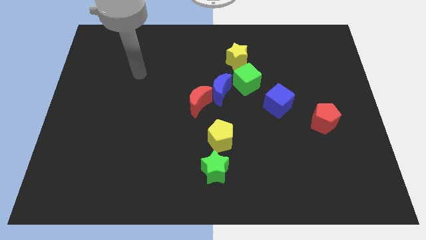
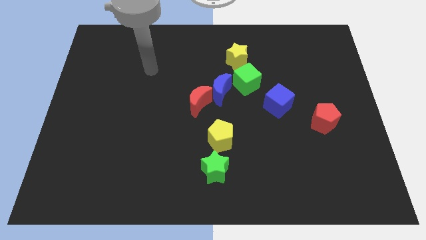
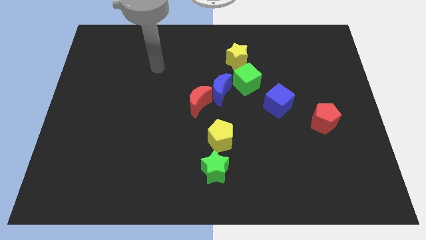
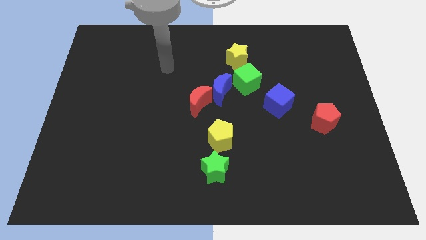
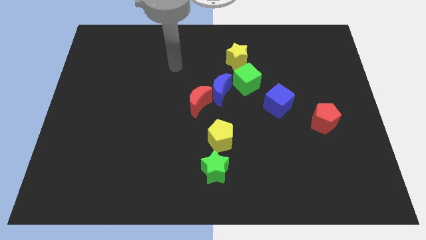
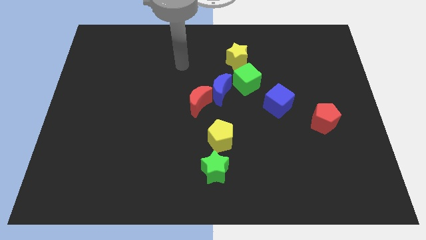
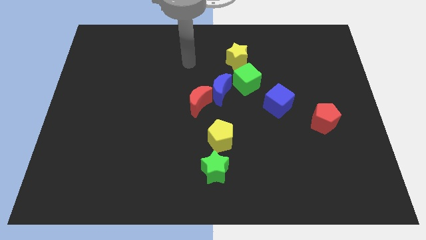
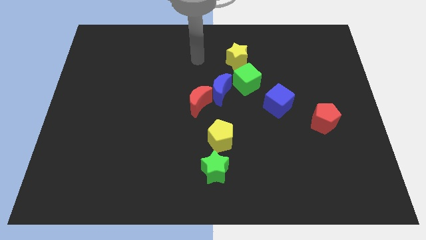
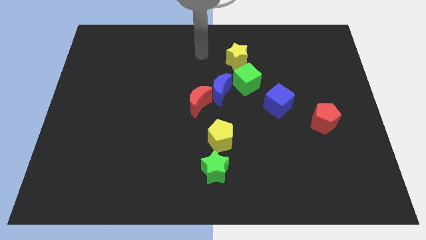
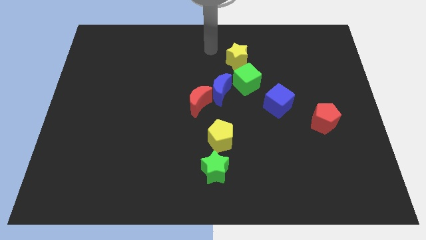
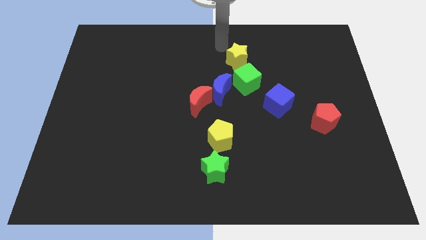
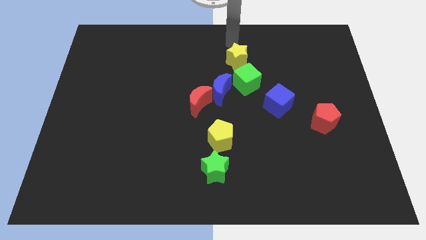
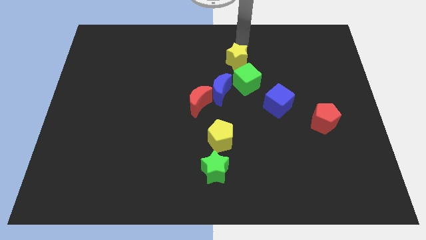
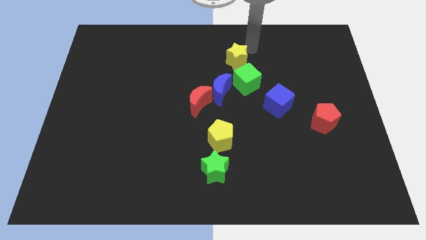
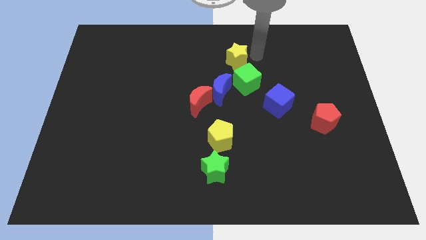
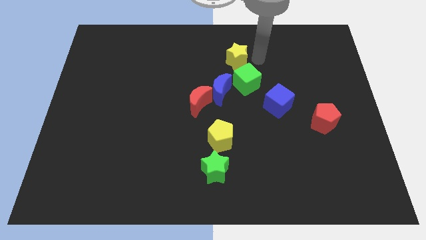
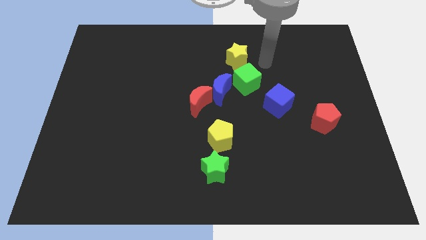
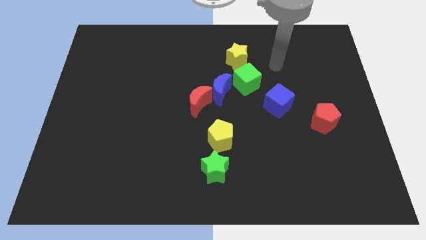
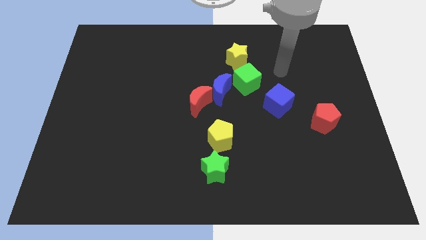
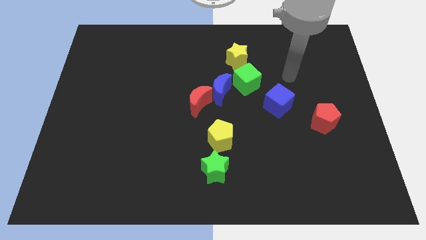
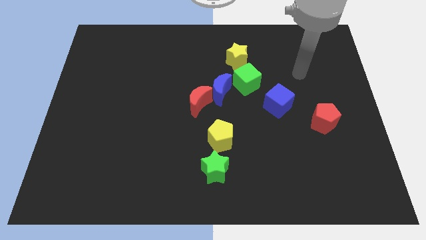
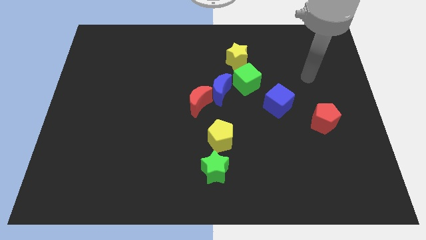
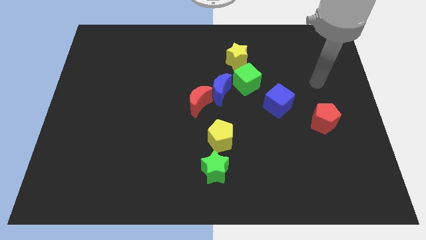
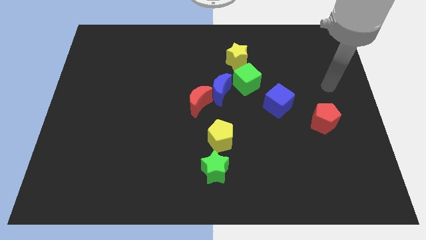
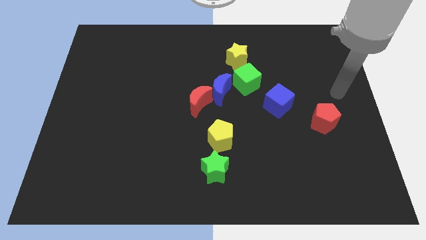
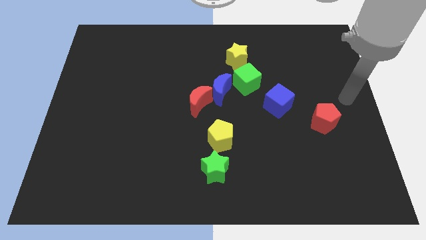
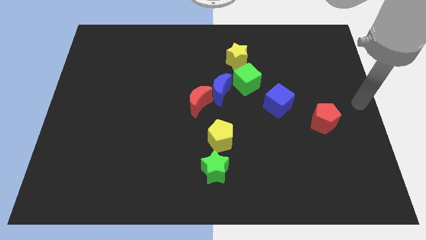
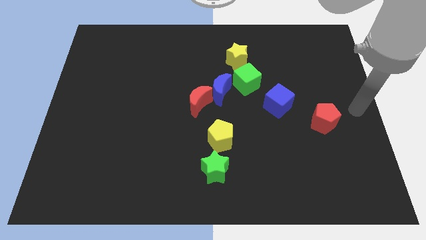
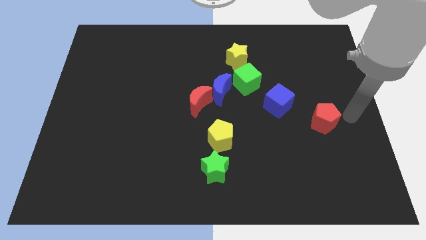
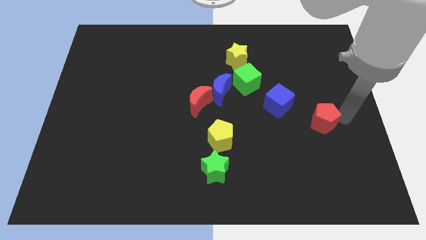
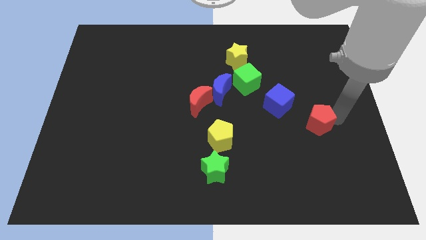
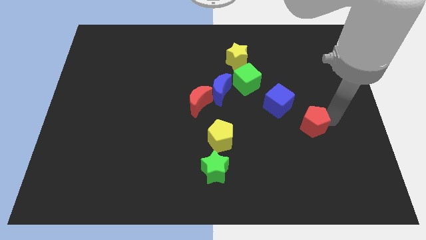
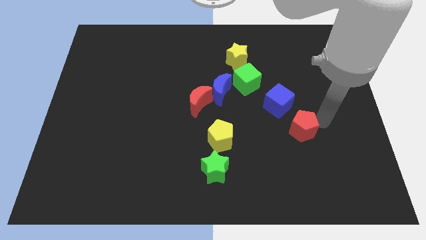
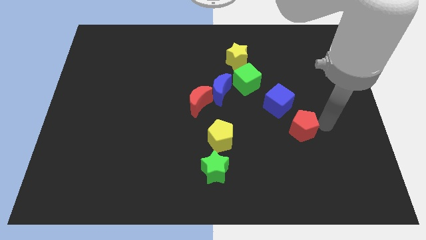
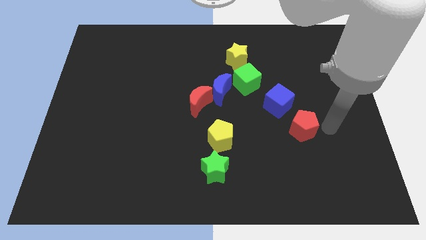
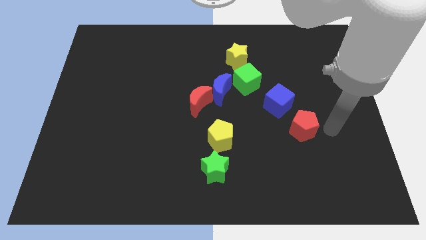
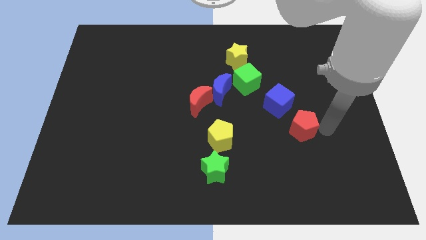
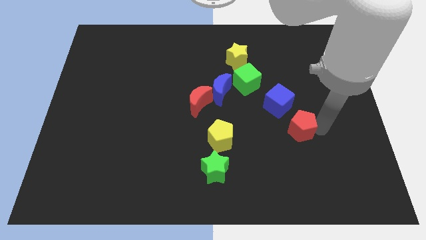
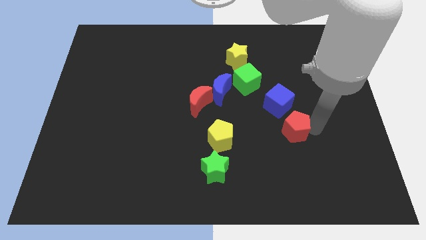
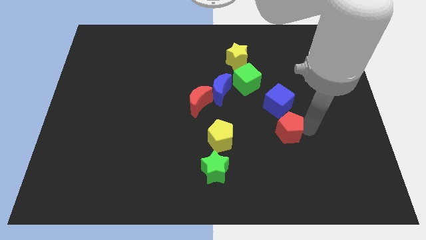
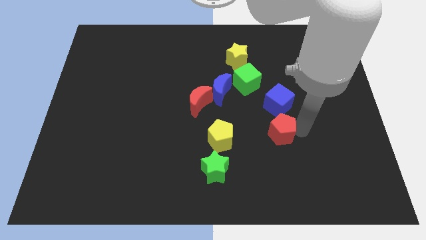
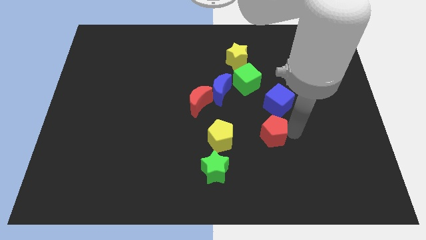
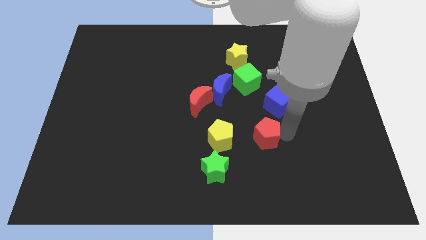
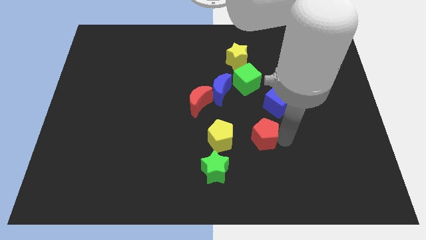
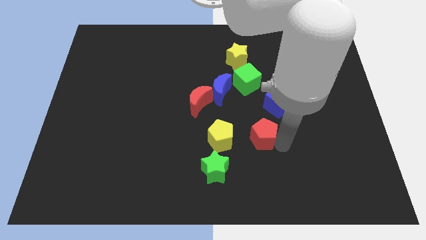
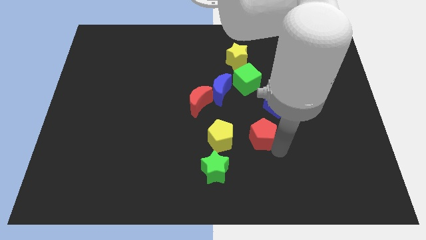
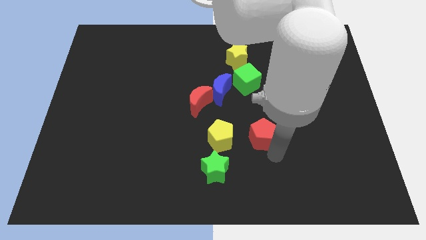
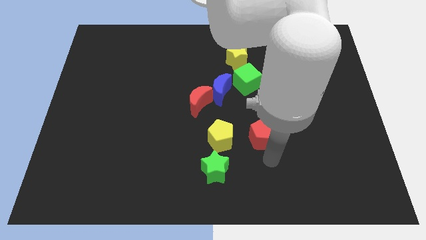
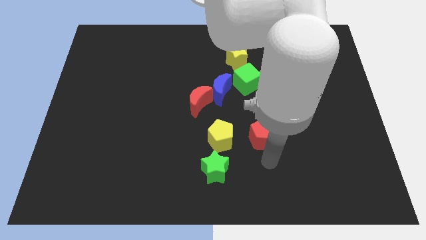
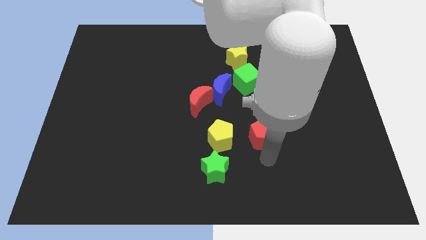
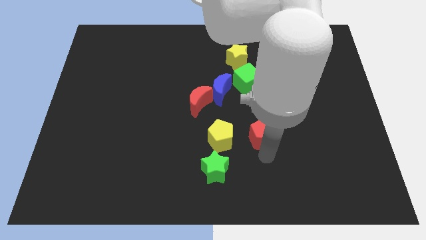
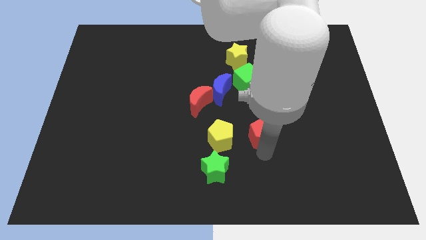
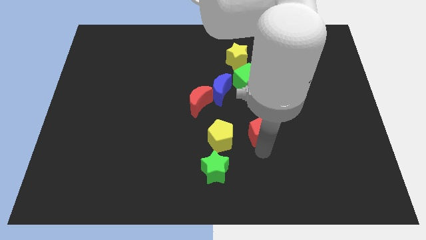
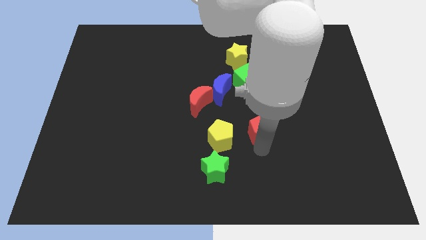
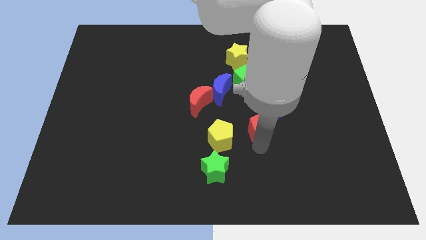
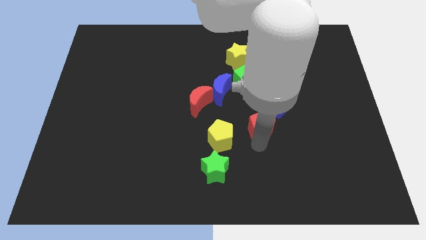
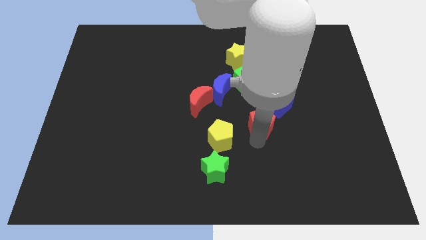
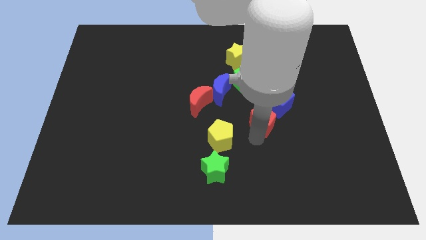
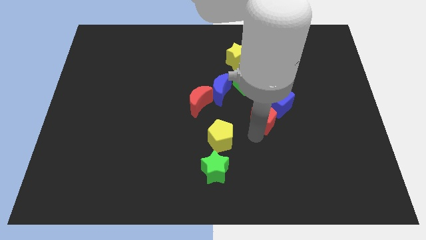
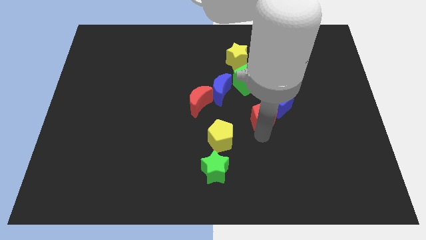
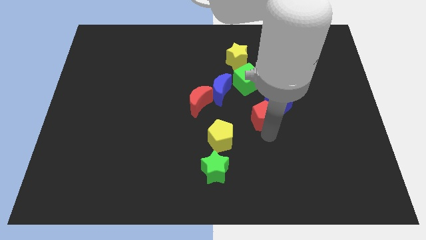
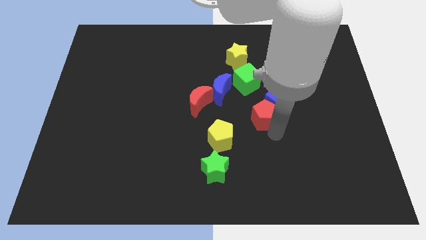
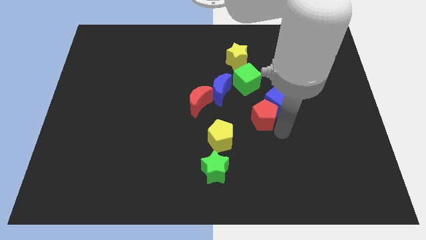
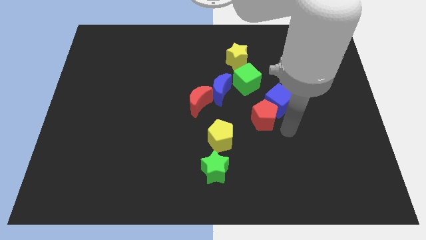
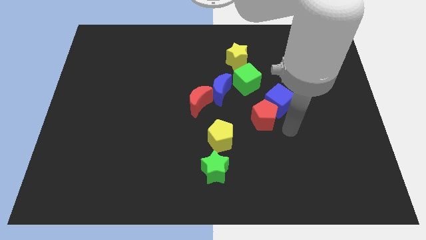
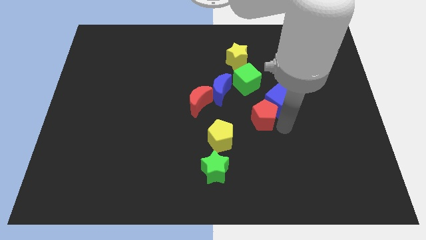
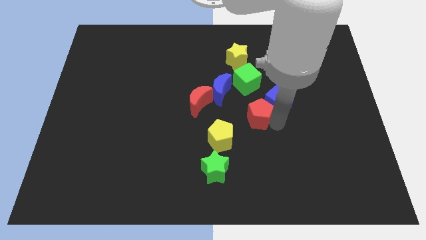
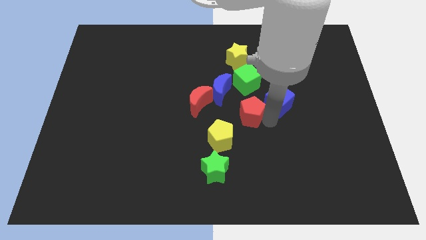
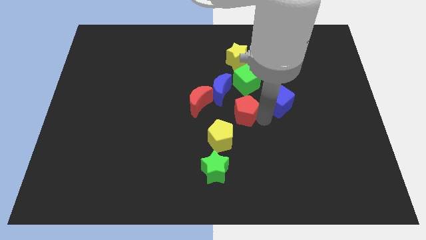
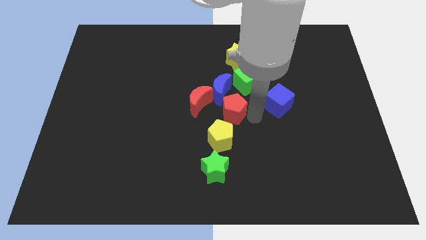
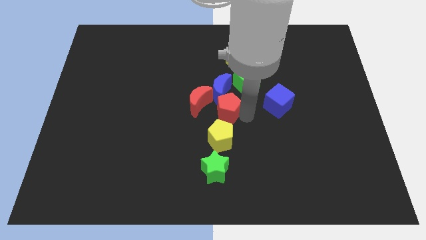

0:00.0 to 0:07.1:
move the red pentagon to the blue moon
